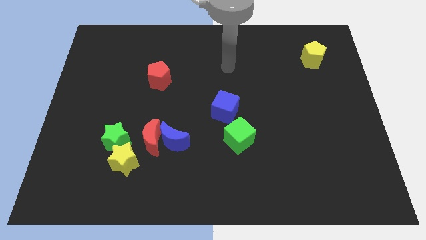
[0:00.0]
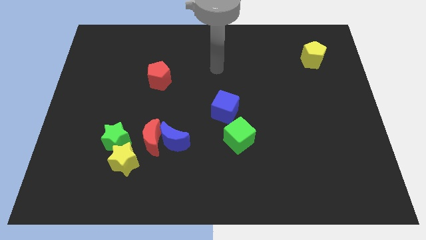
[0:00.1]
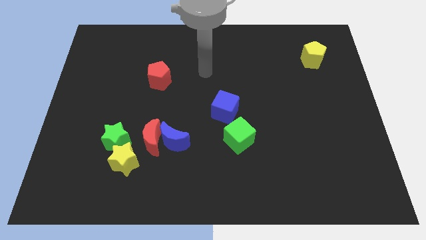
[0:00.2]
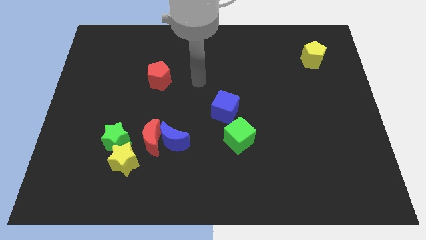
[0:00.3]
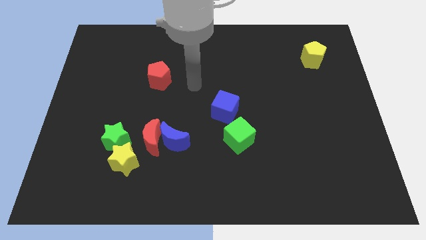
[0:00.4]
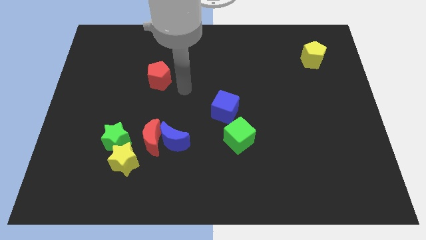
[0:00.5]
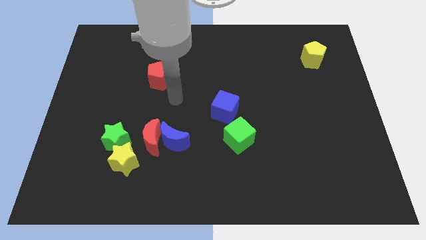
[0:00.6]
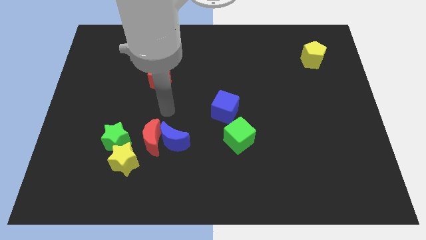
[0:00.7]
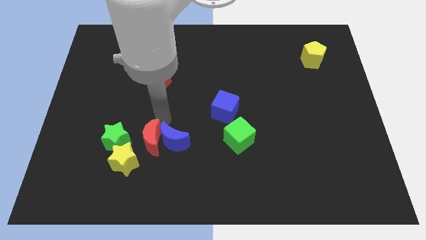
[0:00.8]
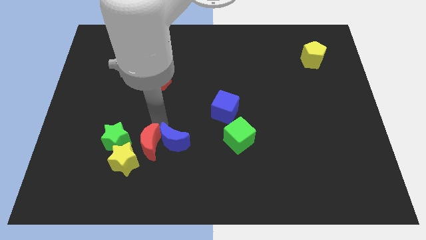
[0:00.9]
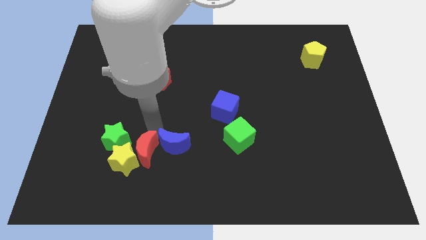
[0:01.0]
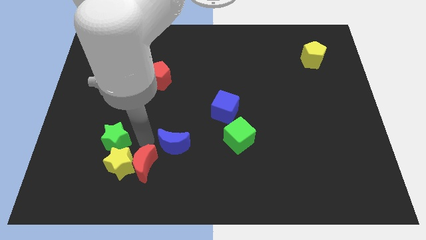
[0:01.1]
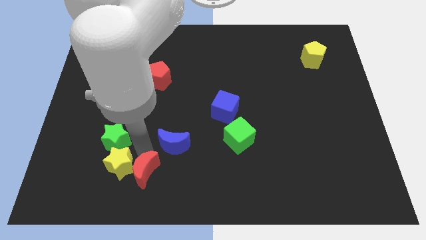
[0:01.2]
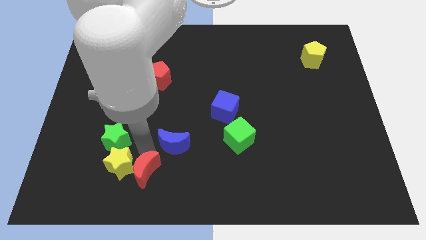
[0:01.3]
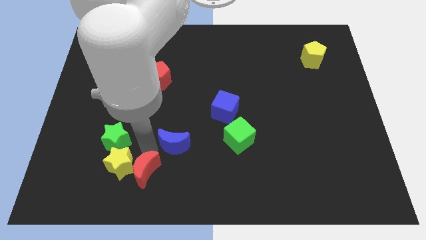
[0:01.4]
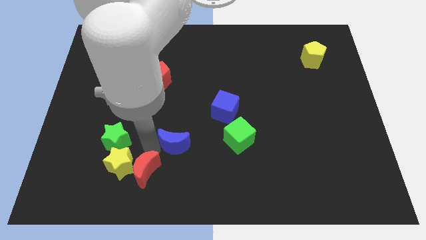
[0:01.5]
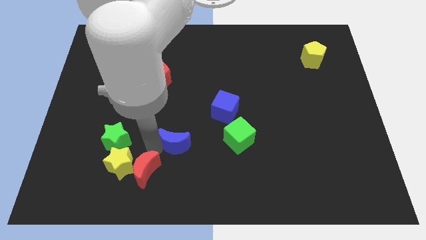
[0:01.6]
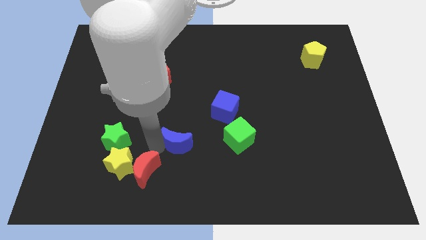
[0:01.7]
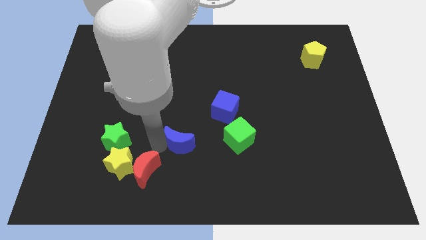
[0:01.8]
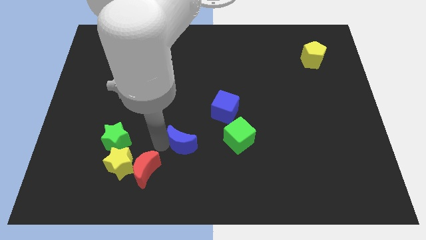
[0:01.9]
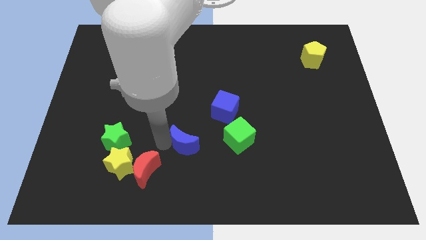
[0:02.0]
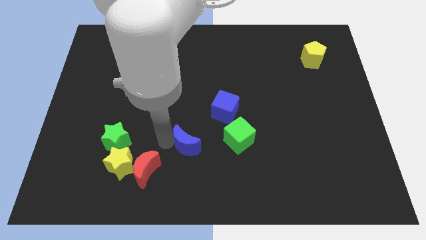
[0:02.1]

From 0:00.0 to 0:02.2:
move the blue moon away from the red moon

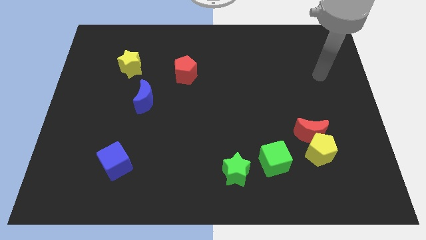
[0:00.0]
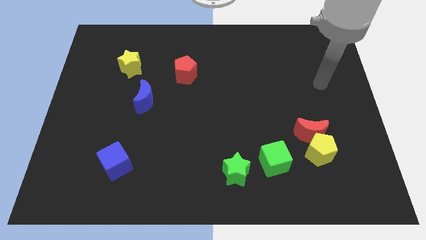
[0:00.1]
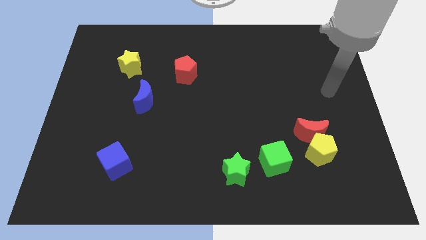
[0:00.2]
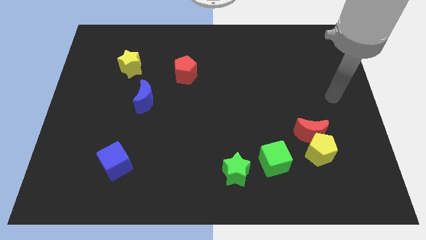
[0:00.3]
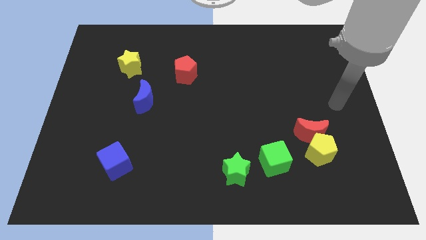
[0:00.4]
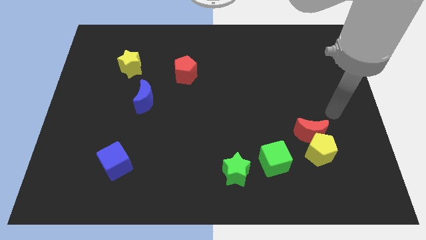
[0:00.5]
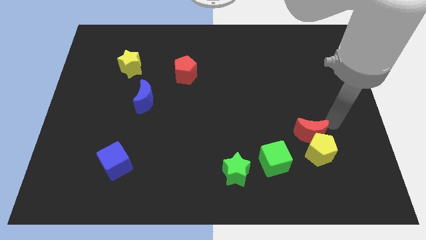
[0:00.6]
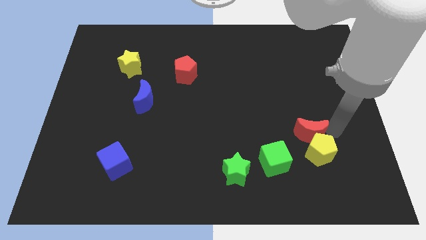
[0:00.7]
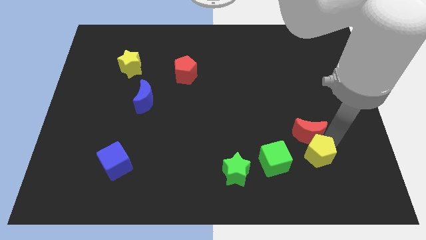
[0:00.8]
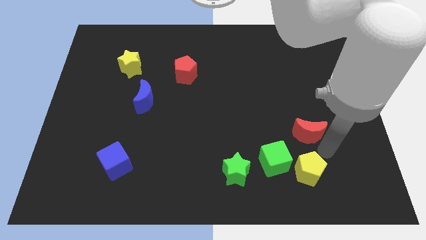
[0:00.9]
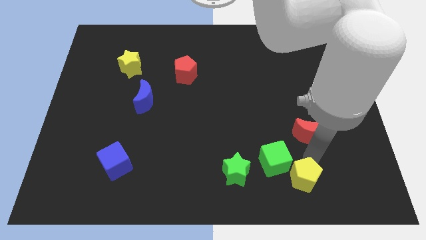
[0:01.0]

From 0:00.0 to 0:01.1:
move the red moon away from the yellow pentagon

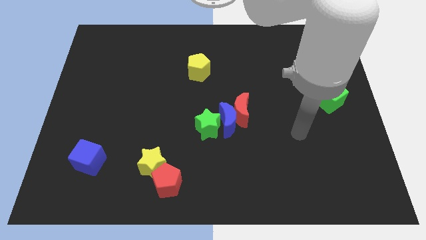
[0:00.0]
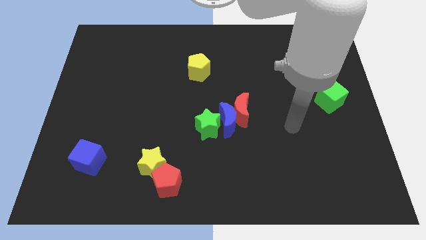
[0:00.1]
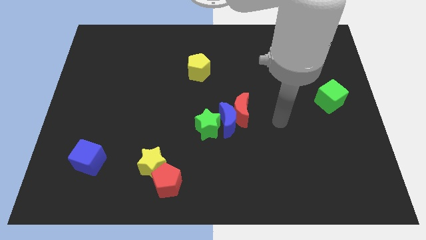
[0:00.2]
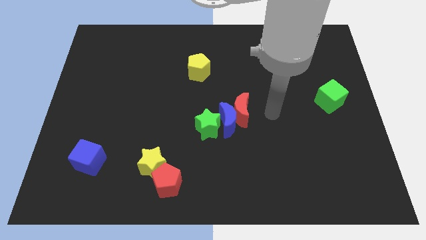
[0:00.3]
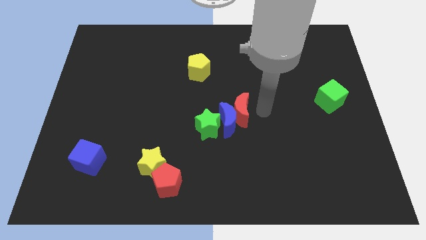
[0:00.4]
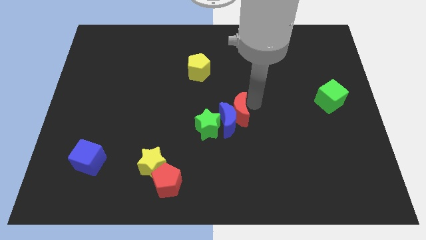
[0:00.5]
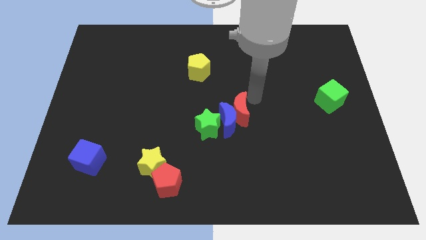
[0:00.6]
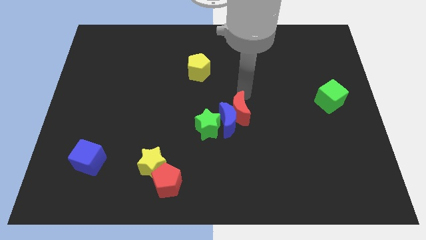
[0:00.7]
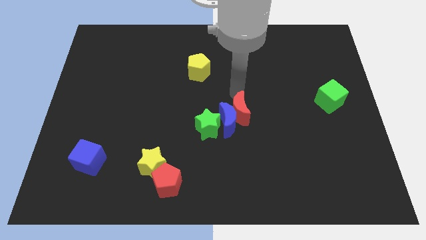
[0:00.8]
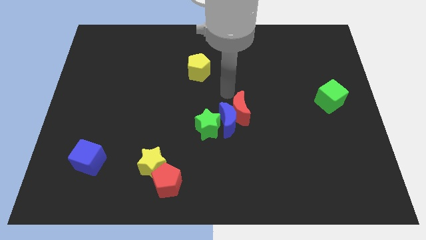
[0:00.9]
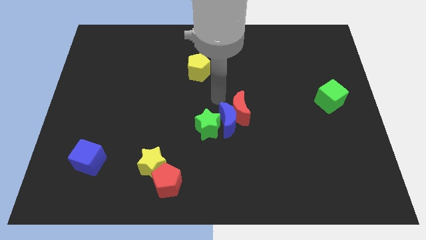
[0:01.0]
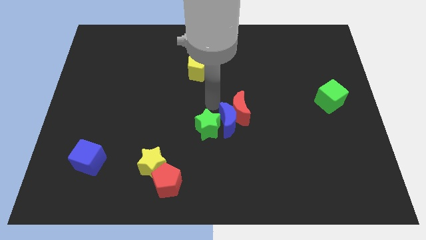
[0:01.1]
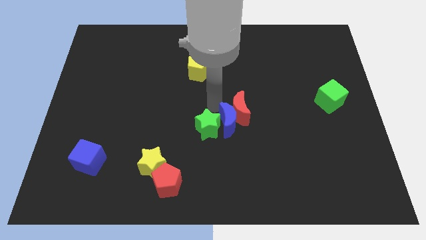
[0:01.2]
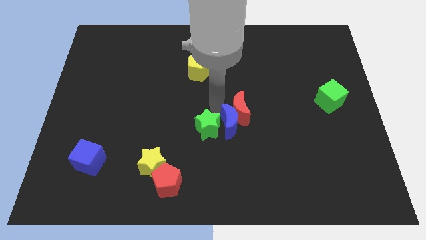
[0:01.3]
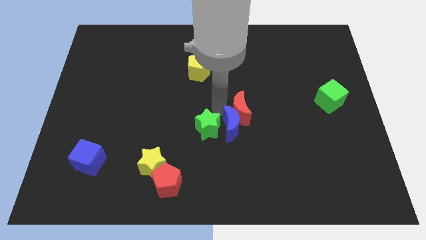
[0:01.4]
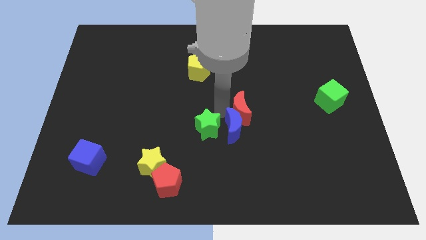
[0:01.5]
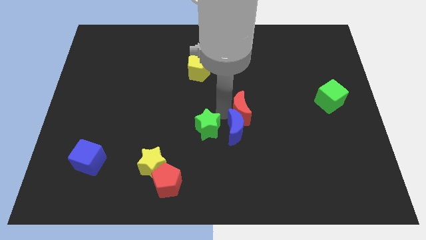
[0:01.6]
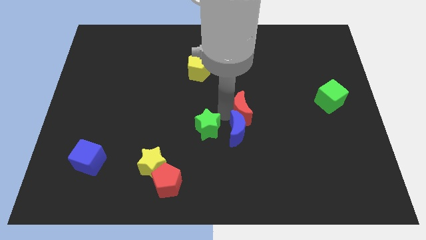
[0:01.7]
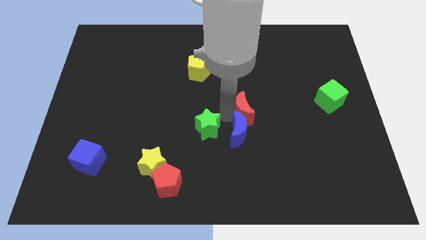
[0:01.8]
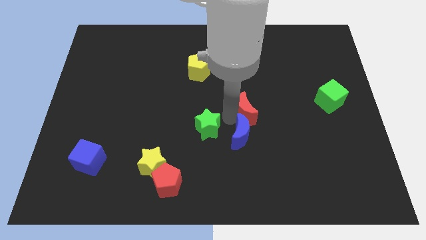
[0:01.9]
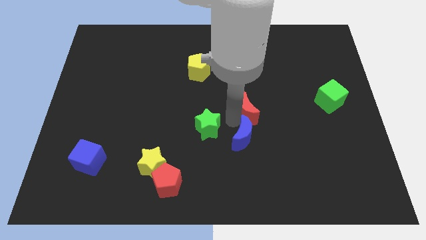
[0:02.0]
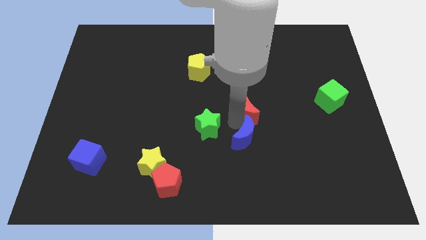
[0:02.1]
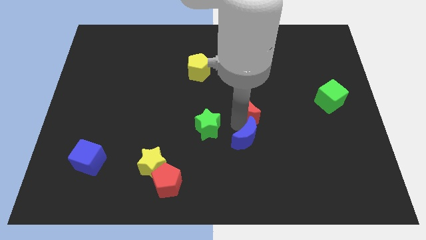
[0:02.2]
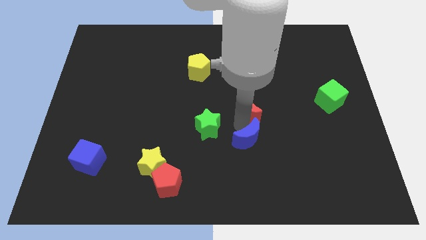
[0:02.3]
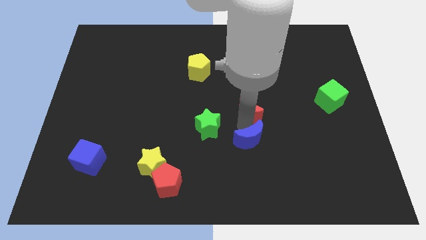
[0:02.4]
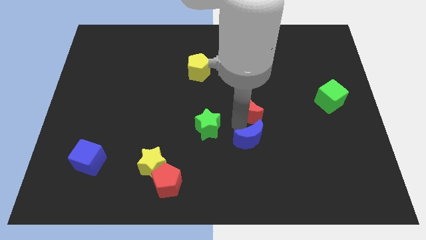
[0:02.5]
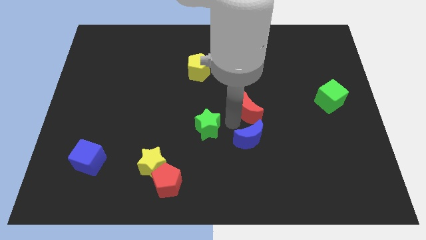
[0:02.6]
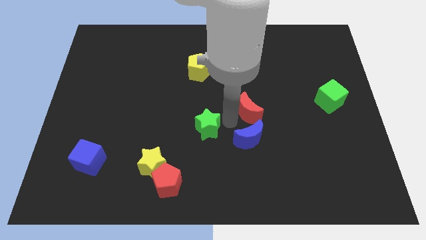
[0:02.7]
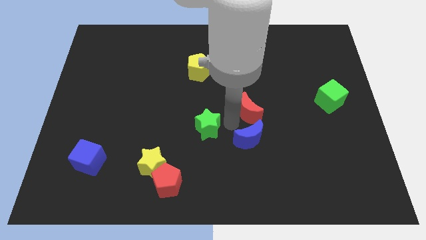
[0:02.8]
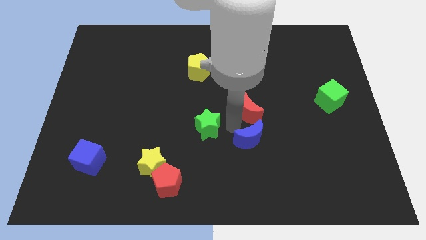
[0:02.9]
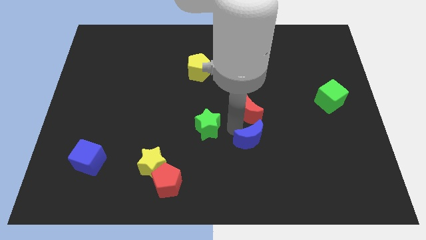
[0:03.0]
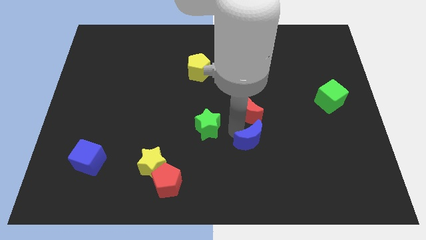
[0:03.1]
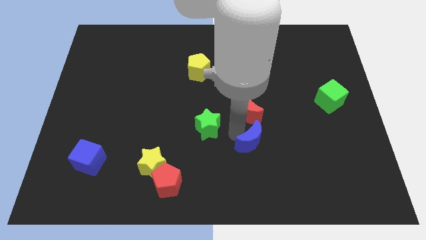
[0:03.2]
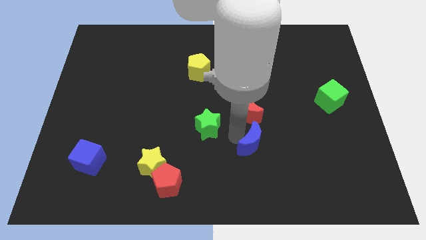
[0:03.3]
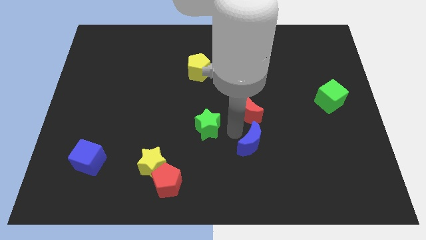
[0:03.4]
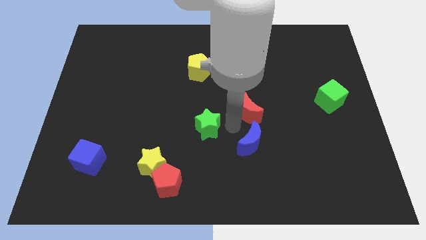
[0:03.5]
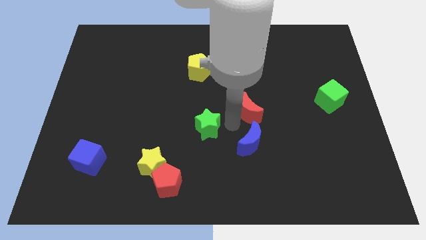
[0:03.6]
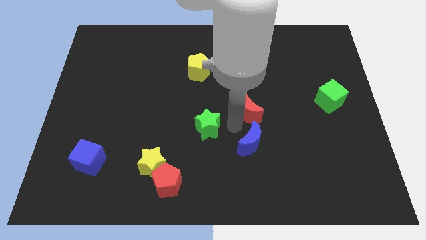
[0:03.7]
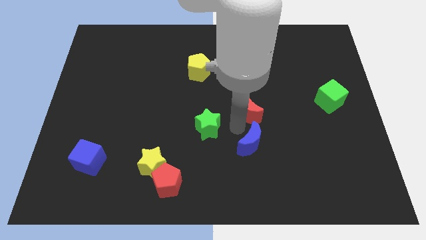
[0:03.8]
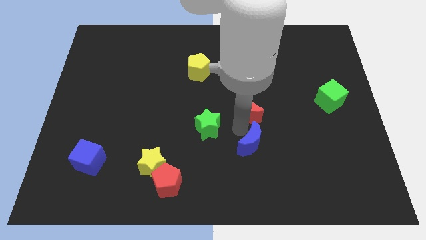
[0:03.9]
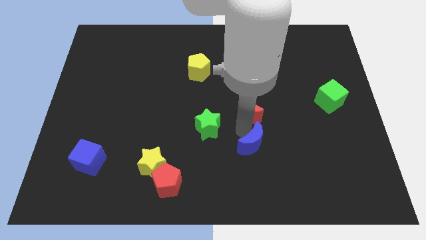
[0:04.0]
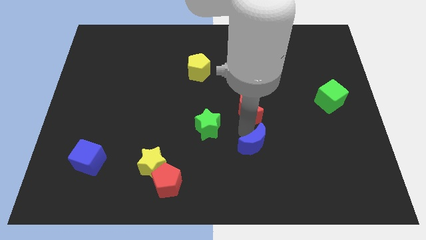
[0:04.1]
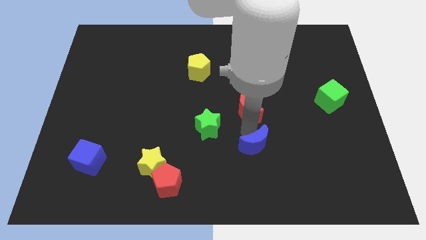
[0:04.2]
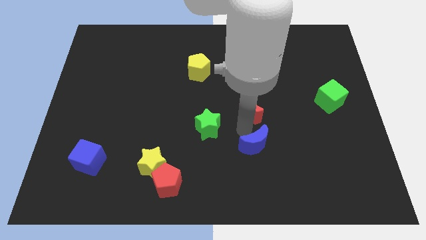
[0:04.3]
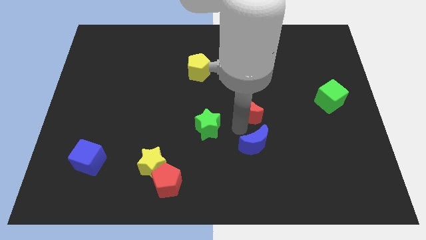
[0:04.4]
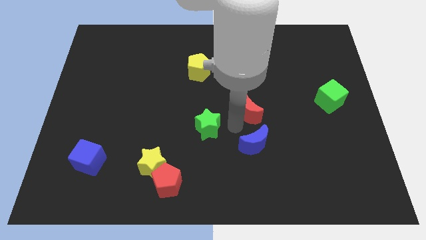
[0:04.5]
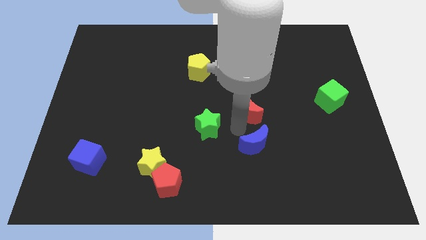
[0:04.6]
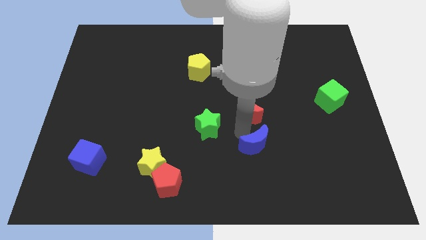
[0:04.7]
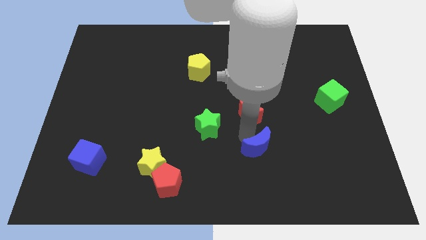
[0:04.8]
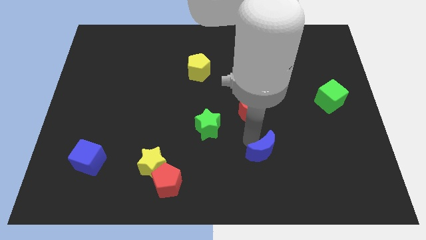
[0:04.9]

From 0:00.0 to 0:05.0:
pull the blue moon apart from the red moon and green star

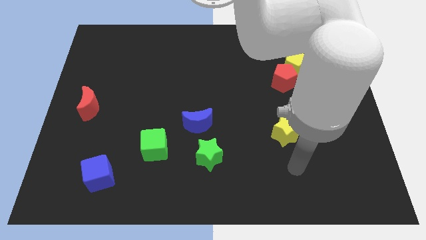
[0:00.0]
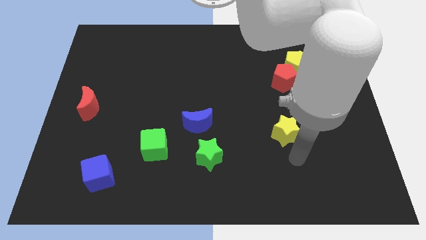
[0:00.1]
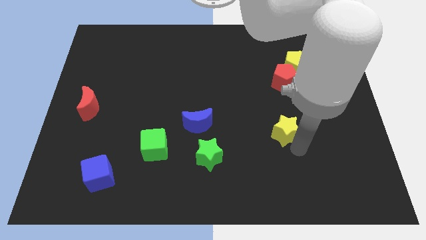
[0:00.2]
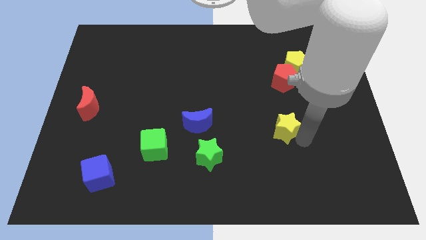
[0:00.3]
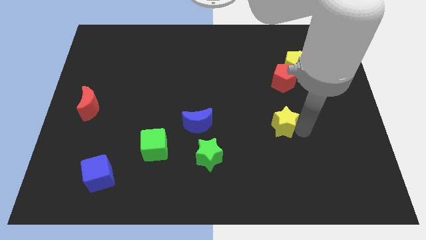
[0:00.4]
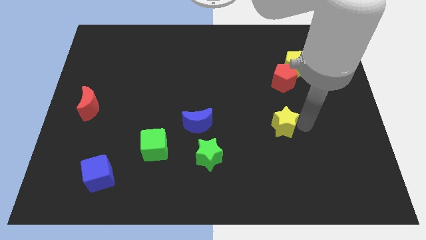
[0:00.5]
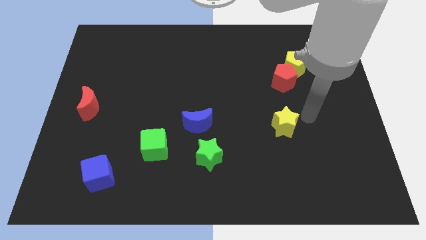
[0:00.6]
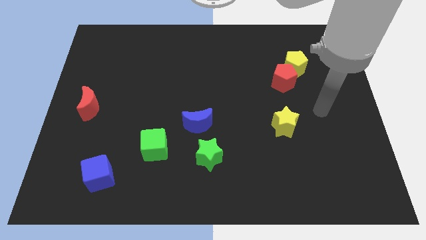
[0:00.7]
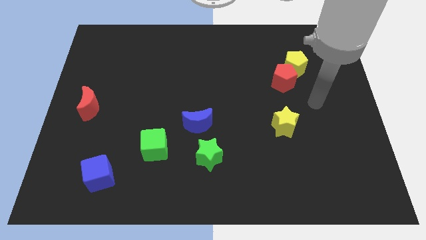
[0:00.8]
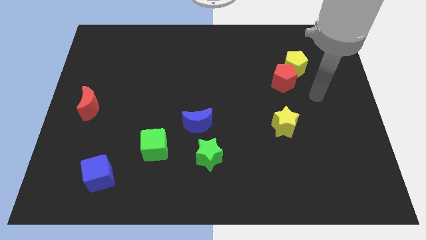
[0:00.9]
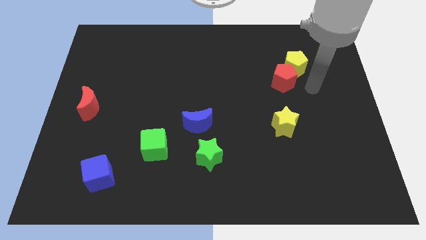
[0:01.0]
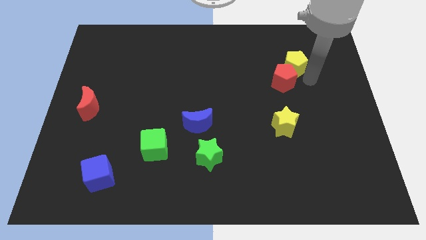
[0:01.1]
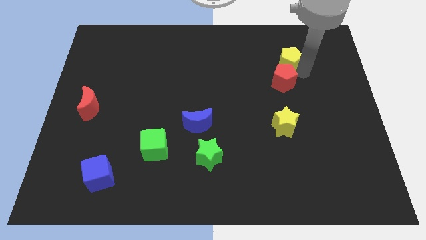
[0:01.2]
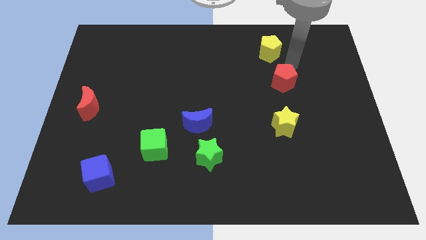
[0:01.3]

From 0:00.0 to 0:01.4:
separate the red pentagon from the yellow pentagon
